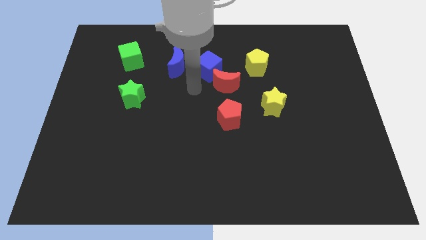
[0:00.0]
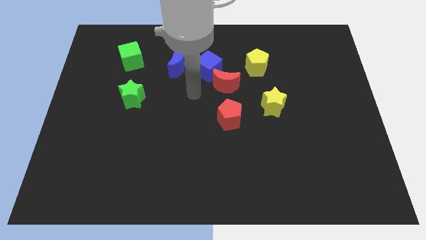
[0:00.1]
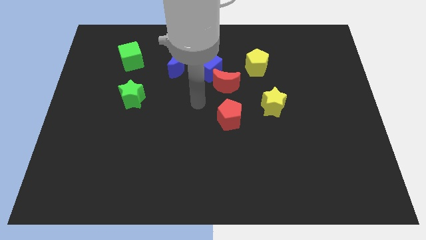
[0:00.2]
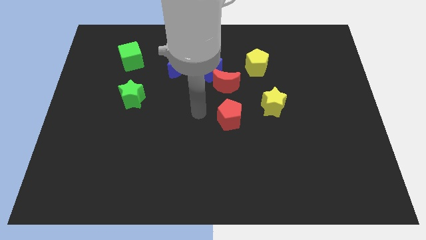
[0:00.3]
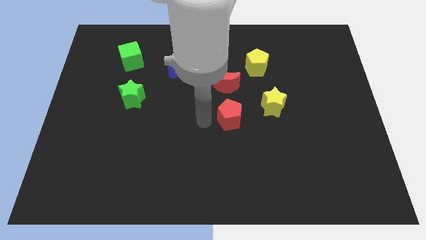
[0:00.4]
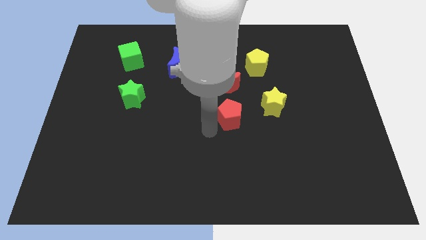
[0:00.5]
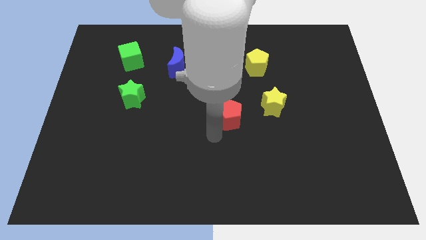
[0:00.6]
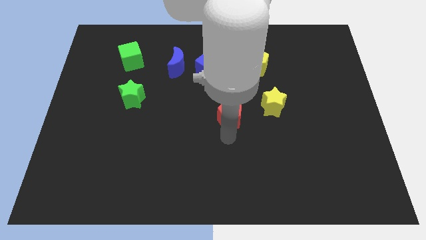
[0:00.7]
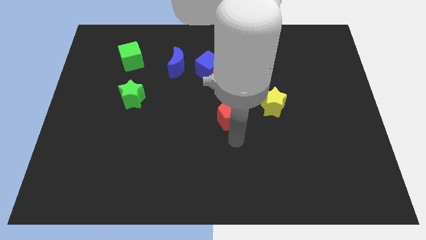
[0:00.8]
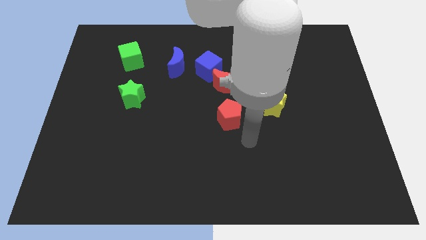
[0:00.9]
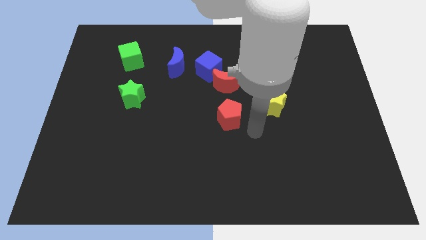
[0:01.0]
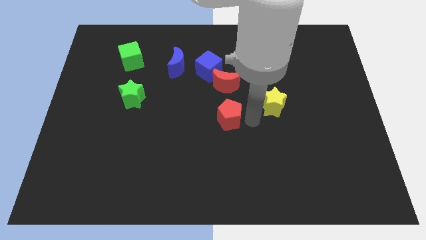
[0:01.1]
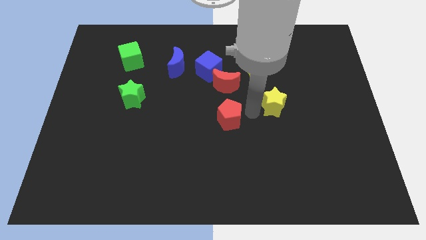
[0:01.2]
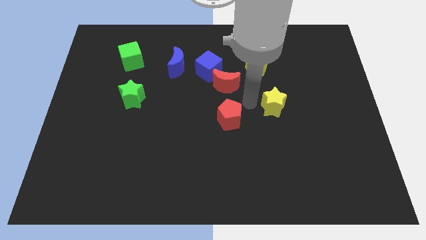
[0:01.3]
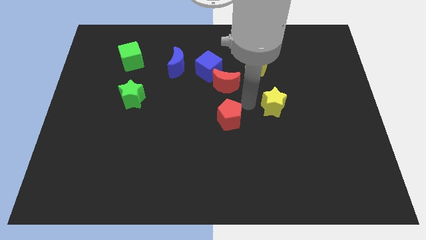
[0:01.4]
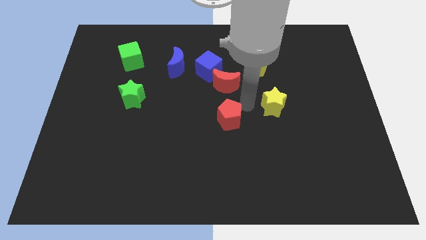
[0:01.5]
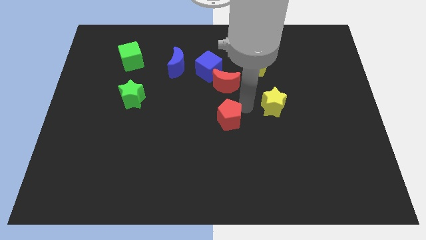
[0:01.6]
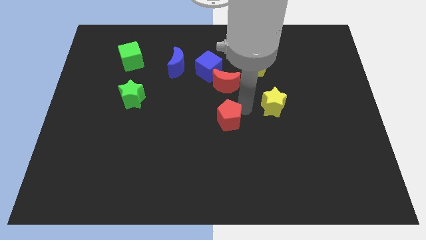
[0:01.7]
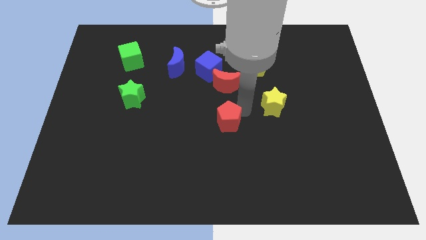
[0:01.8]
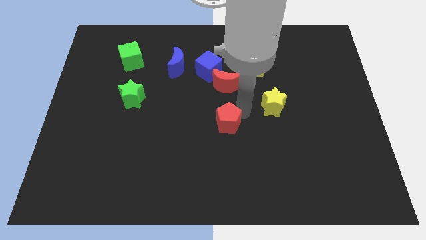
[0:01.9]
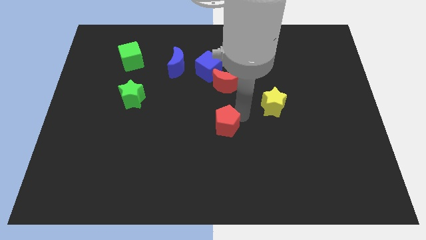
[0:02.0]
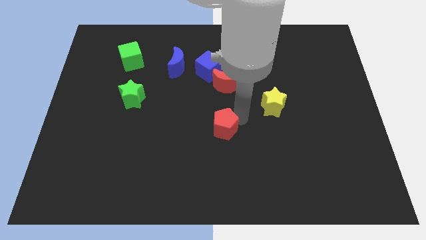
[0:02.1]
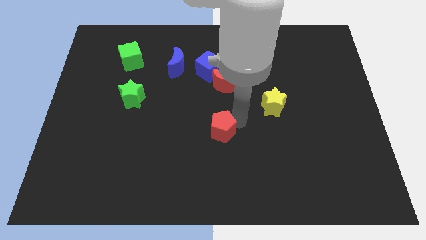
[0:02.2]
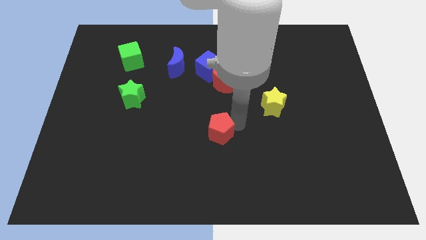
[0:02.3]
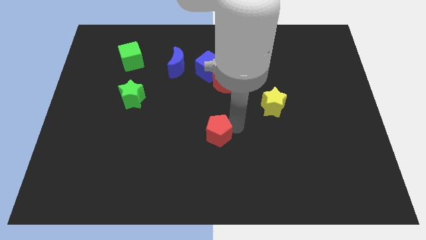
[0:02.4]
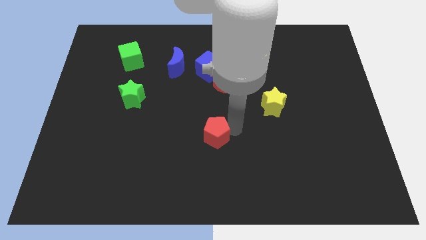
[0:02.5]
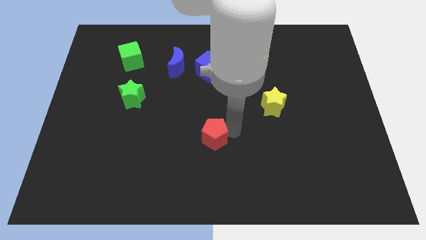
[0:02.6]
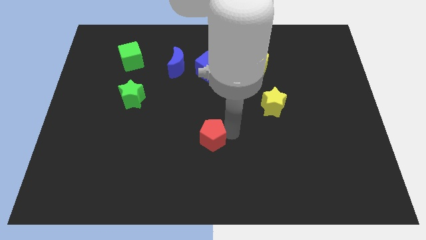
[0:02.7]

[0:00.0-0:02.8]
move the red pentagon somewhat diagonally down and to the left

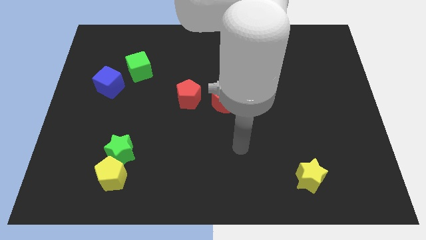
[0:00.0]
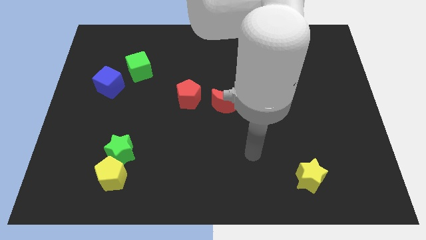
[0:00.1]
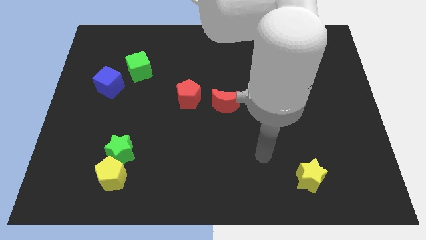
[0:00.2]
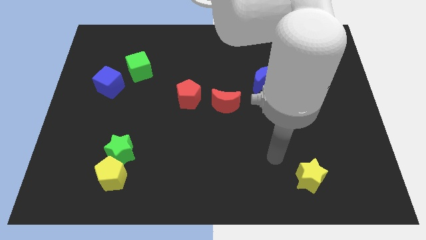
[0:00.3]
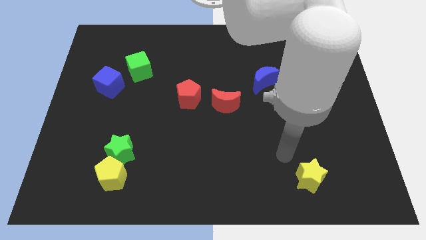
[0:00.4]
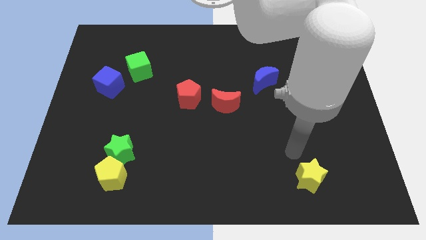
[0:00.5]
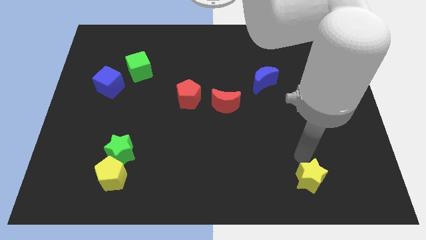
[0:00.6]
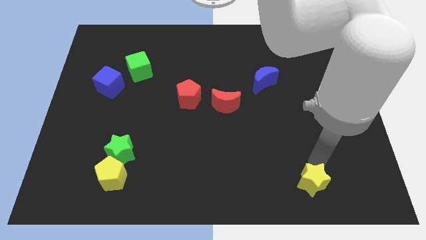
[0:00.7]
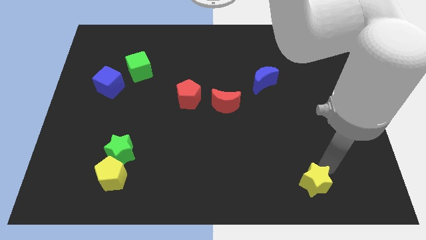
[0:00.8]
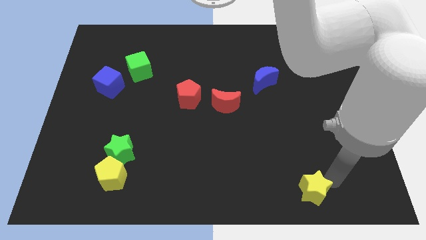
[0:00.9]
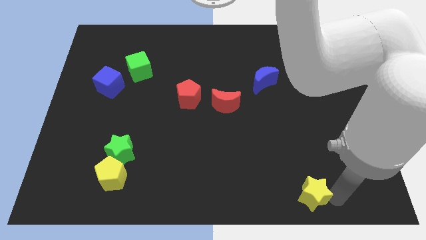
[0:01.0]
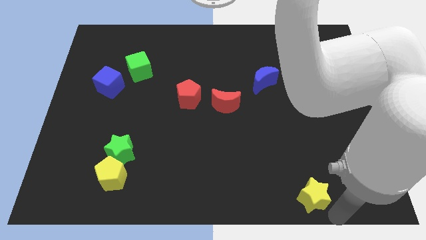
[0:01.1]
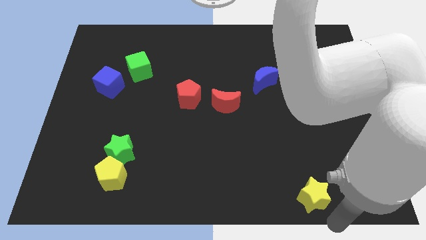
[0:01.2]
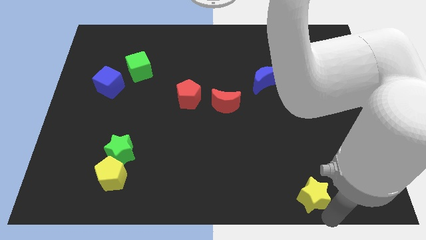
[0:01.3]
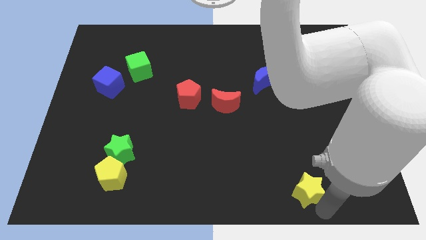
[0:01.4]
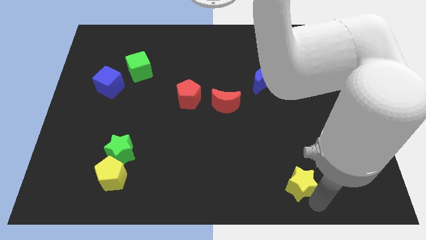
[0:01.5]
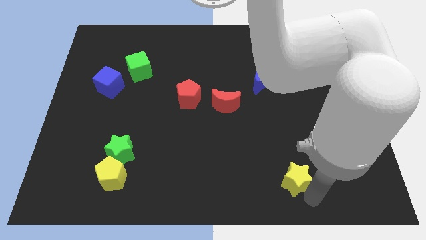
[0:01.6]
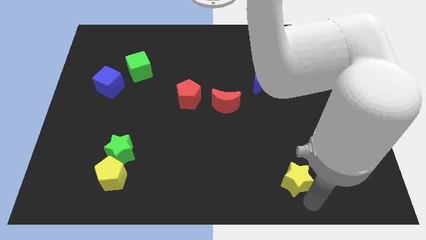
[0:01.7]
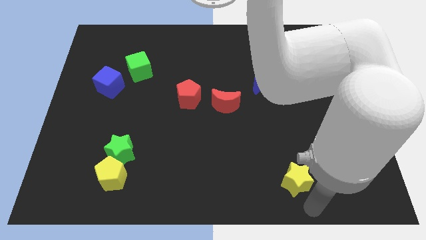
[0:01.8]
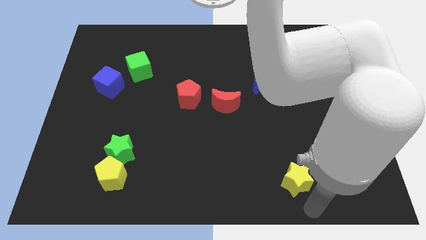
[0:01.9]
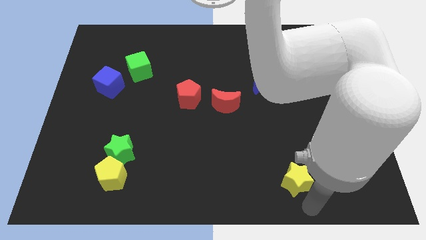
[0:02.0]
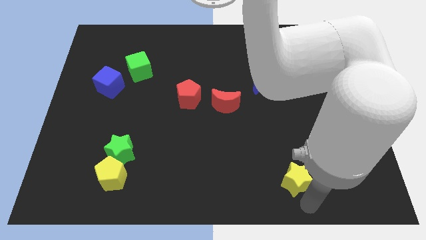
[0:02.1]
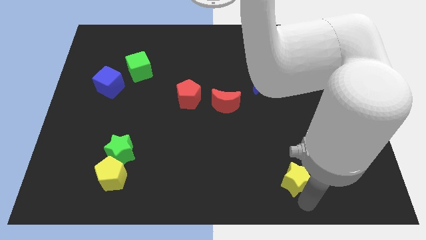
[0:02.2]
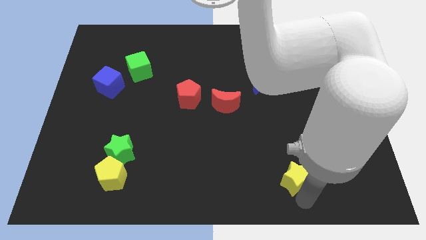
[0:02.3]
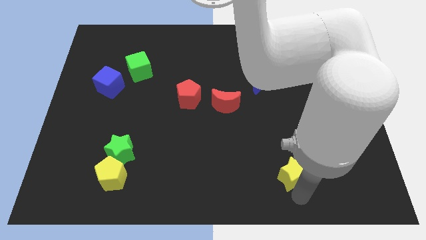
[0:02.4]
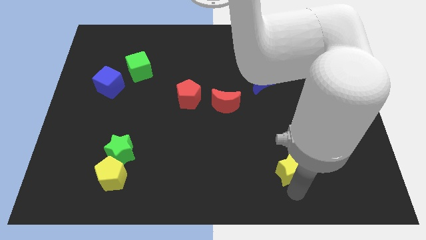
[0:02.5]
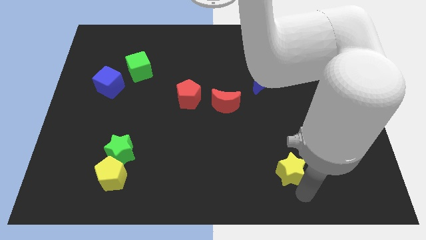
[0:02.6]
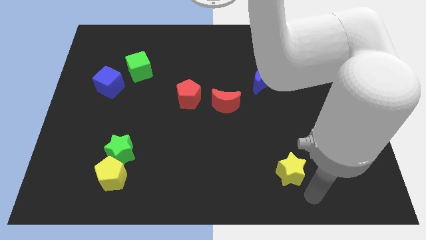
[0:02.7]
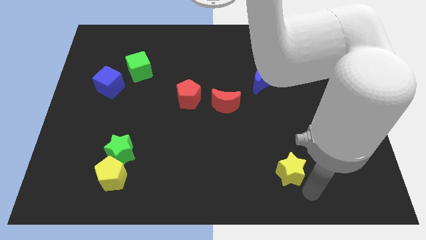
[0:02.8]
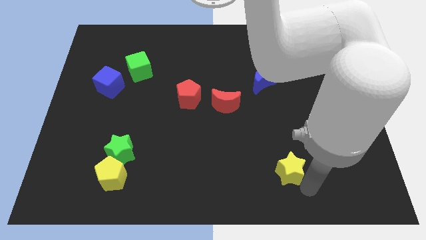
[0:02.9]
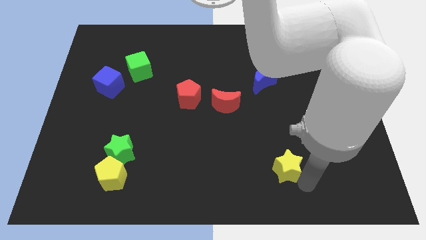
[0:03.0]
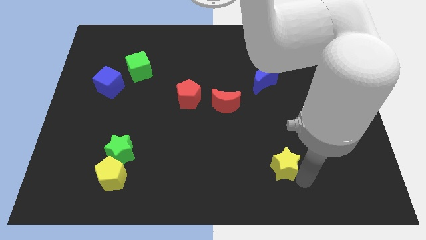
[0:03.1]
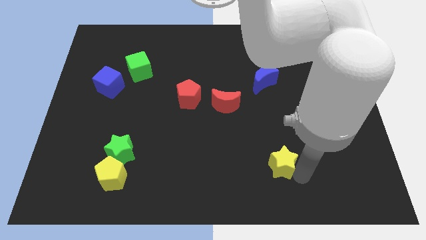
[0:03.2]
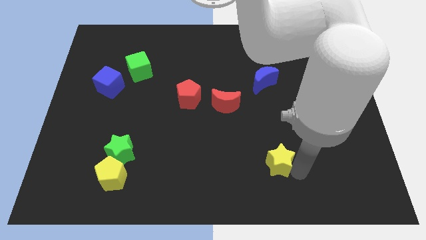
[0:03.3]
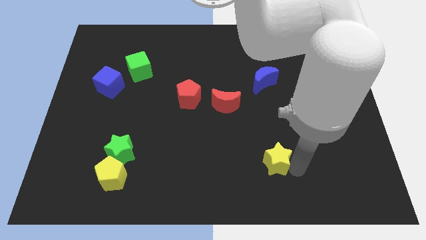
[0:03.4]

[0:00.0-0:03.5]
slightly slide the yellow star upwards and left diagonally

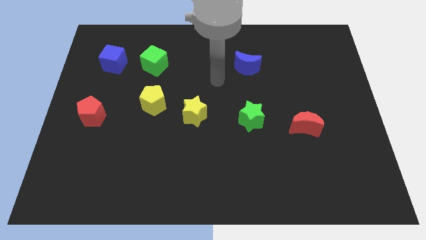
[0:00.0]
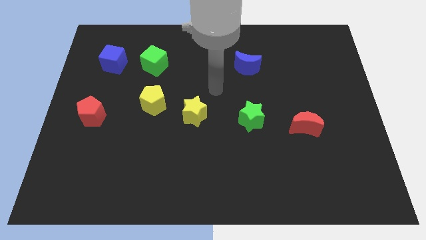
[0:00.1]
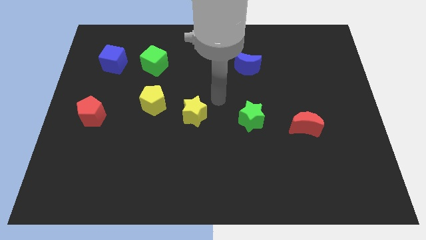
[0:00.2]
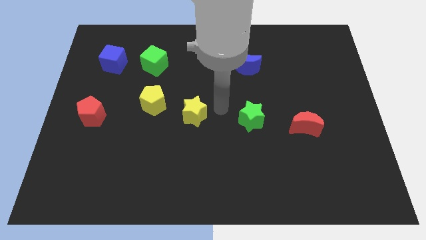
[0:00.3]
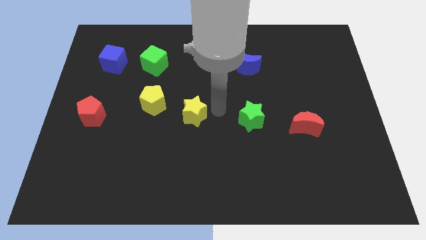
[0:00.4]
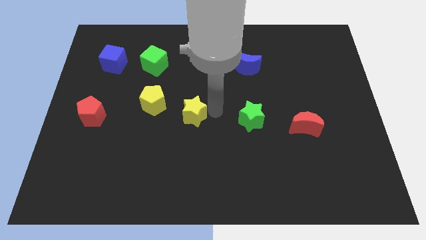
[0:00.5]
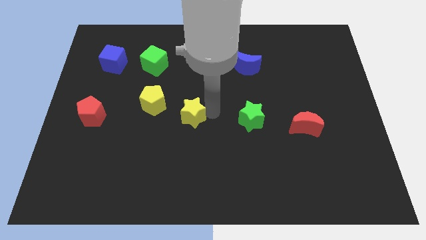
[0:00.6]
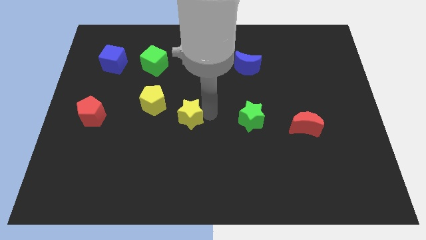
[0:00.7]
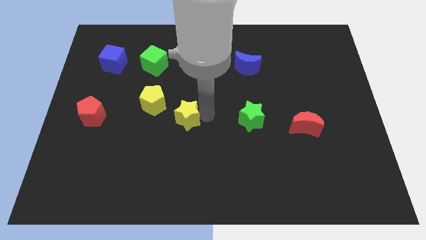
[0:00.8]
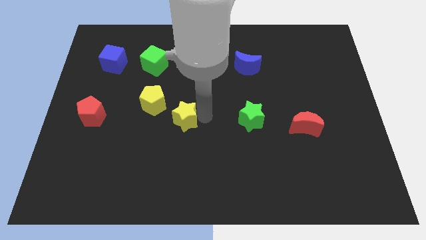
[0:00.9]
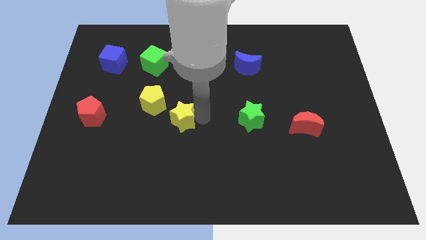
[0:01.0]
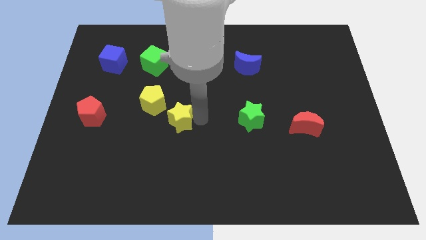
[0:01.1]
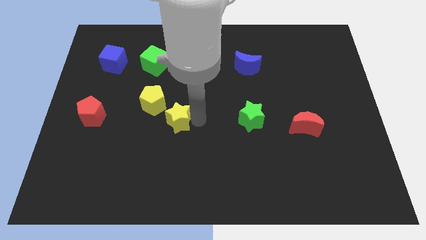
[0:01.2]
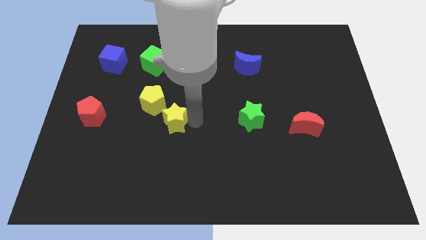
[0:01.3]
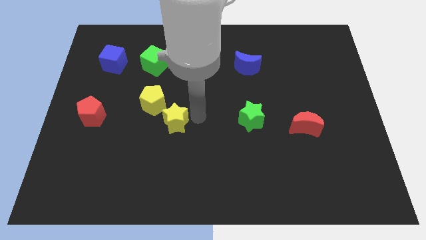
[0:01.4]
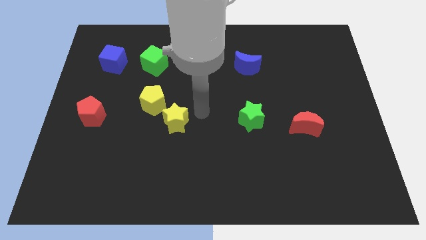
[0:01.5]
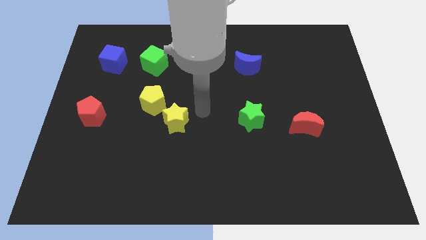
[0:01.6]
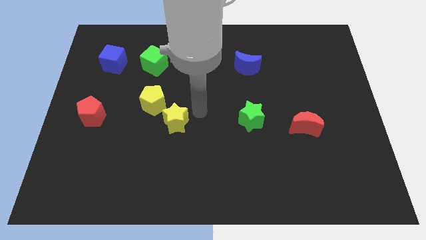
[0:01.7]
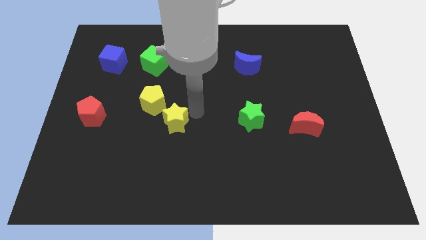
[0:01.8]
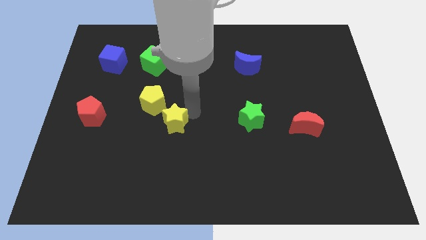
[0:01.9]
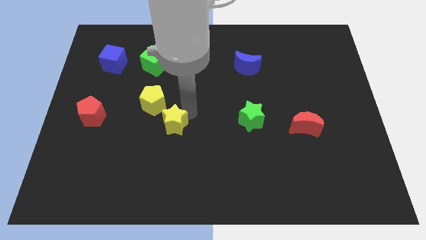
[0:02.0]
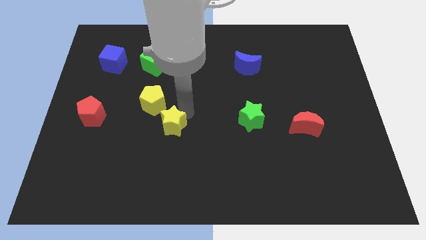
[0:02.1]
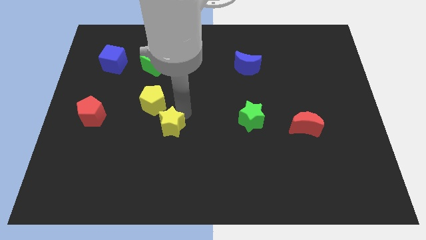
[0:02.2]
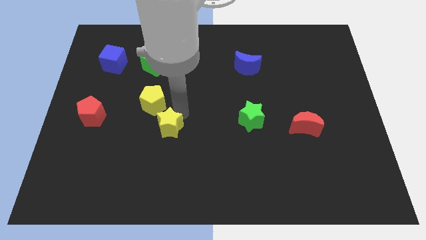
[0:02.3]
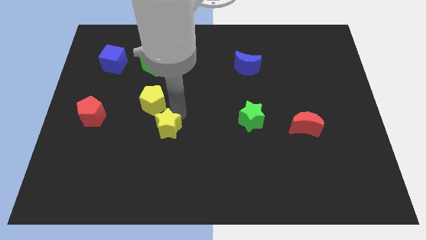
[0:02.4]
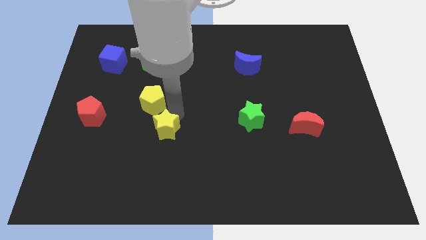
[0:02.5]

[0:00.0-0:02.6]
push the yellow star down and then left a little bit
